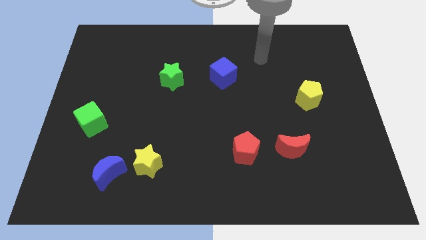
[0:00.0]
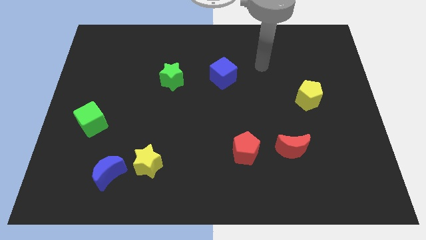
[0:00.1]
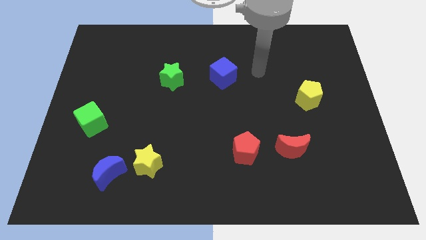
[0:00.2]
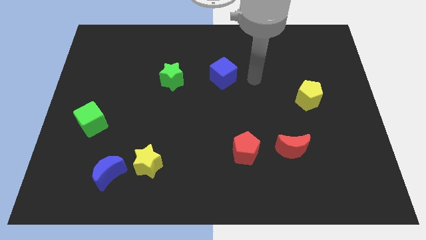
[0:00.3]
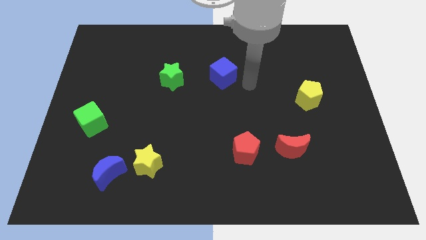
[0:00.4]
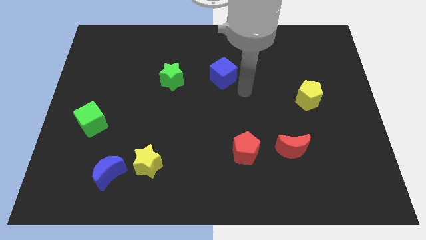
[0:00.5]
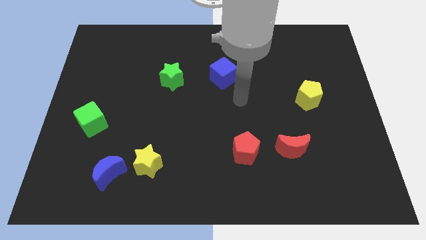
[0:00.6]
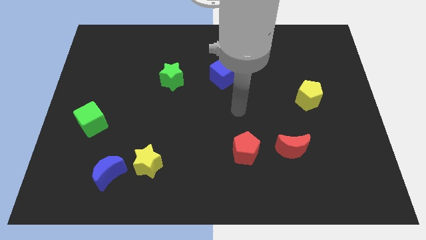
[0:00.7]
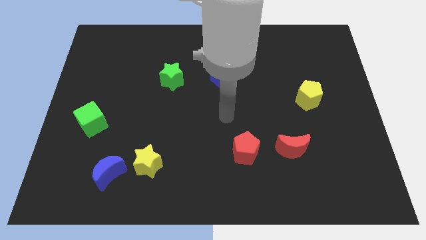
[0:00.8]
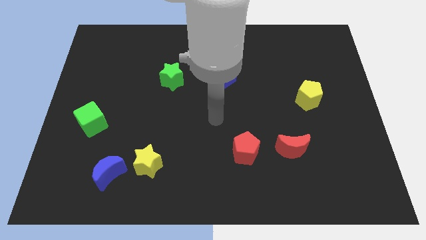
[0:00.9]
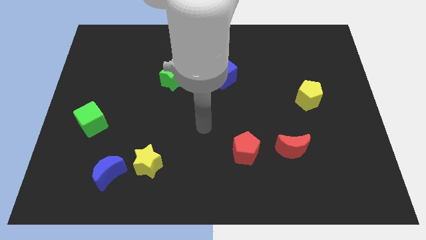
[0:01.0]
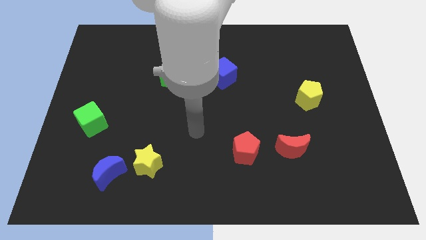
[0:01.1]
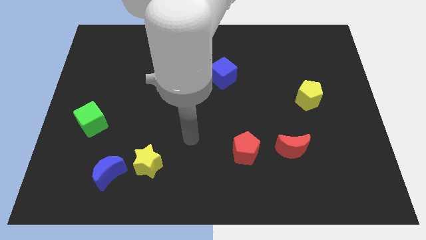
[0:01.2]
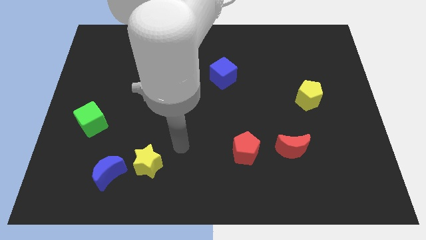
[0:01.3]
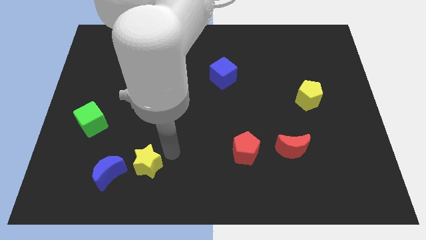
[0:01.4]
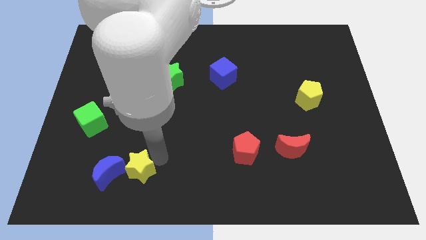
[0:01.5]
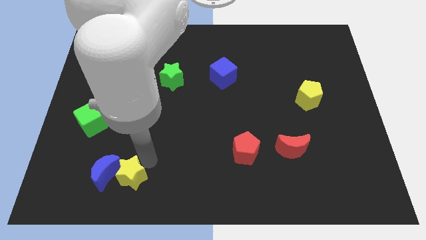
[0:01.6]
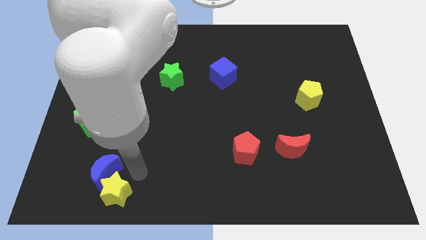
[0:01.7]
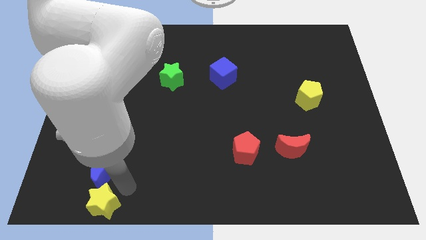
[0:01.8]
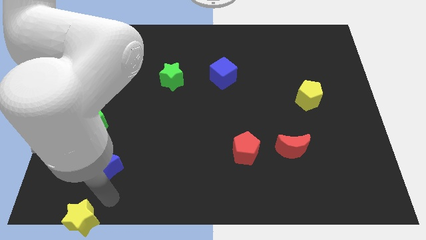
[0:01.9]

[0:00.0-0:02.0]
separate the blue moon from the yellow star

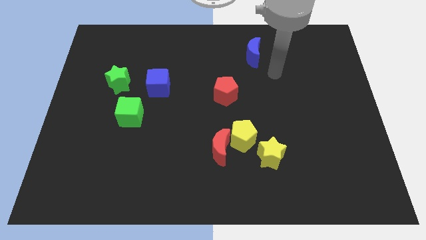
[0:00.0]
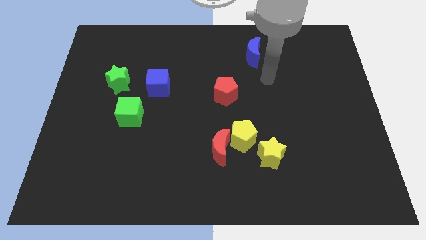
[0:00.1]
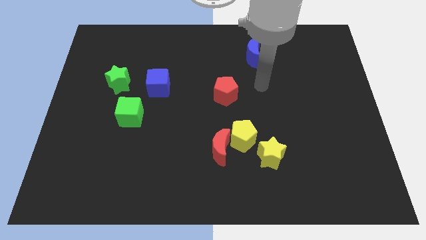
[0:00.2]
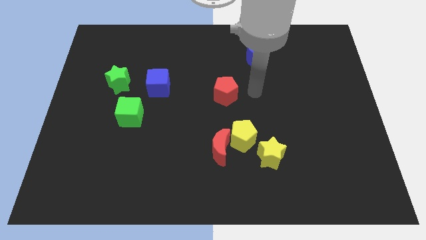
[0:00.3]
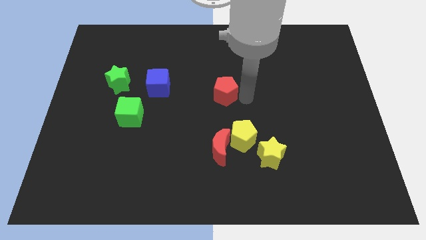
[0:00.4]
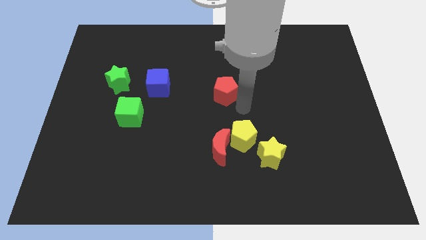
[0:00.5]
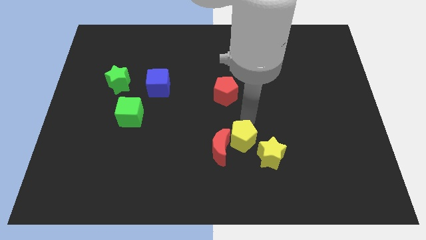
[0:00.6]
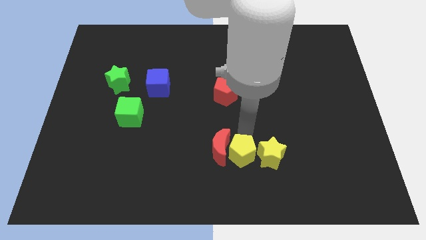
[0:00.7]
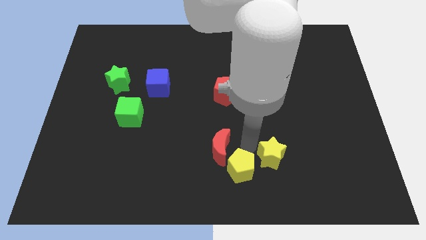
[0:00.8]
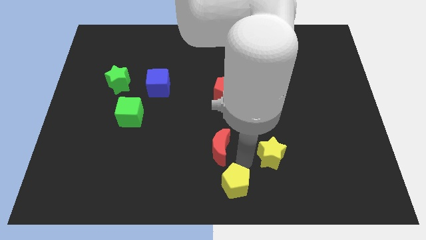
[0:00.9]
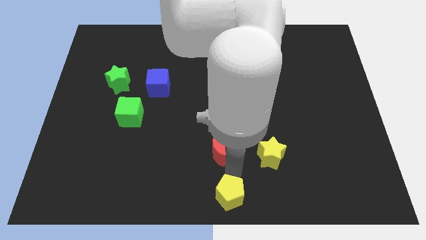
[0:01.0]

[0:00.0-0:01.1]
move the red moon away from the yellow pentagon

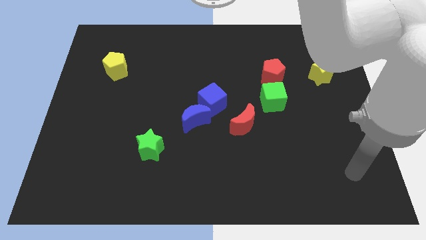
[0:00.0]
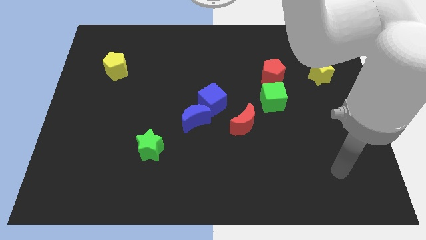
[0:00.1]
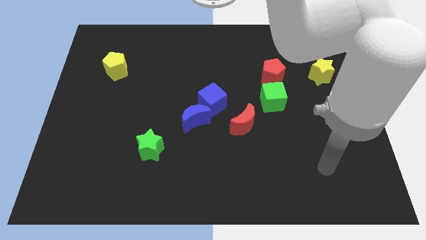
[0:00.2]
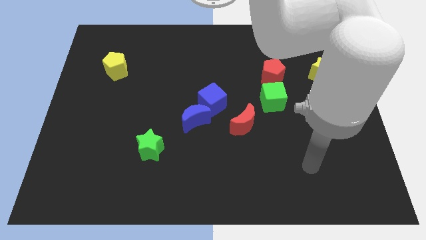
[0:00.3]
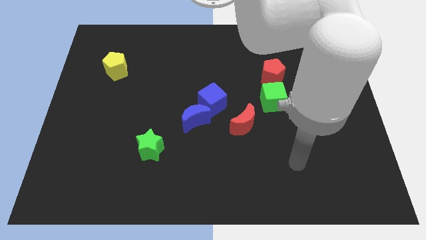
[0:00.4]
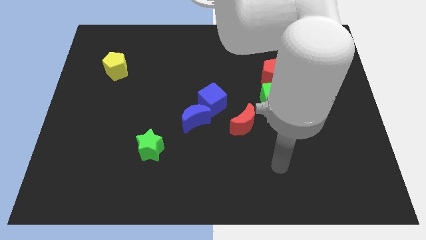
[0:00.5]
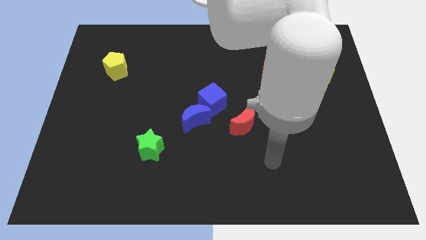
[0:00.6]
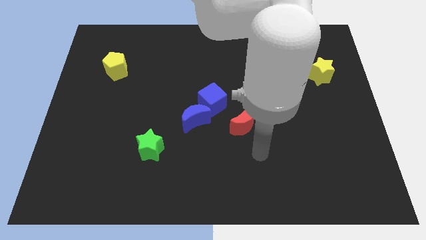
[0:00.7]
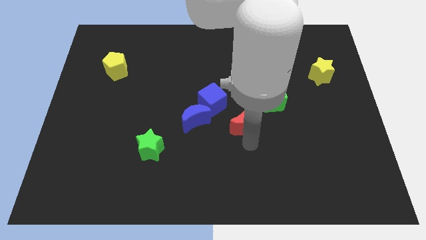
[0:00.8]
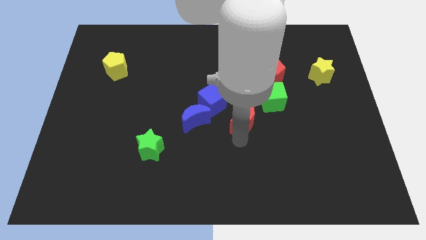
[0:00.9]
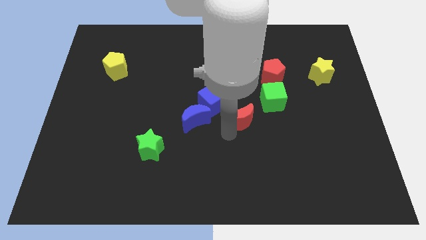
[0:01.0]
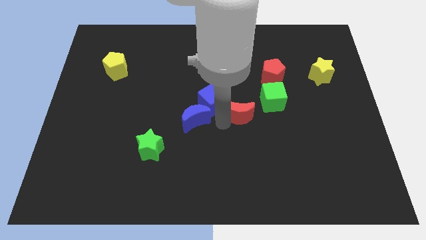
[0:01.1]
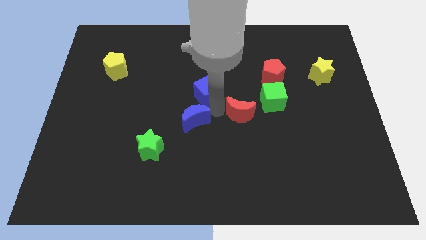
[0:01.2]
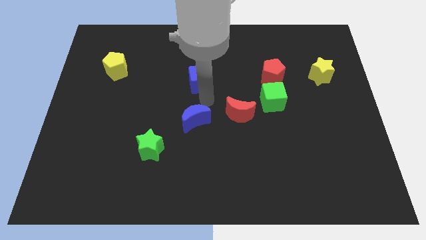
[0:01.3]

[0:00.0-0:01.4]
pull the blue moon apart from the blue cube

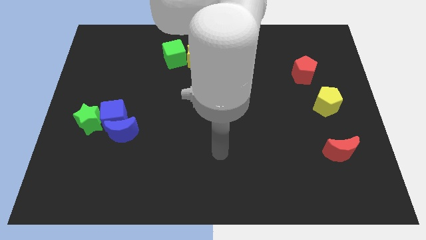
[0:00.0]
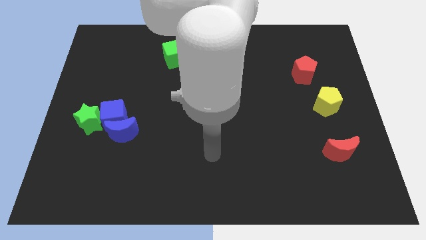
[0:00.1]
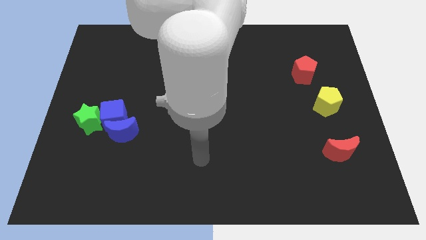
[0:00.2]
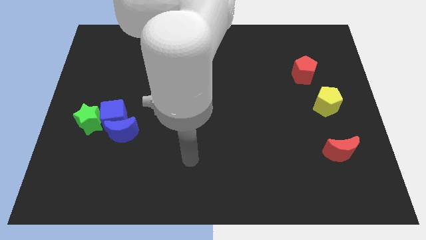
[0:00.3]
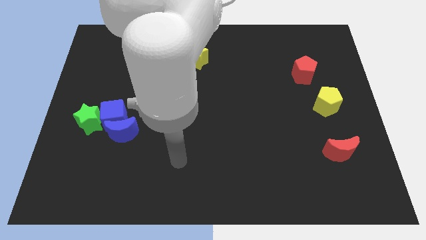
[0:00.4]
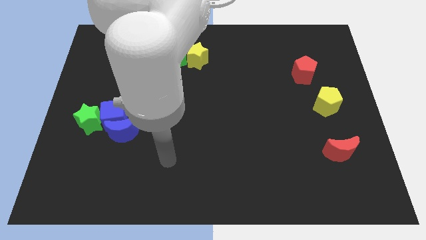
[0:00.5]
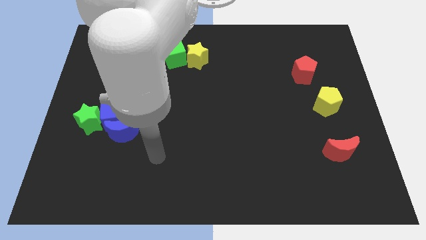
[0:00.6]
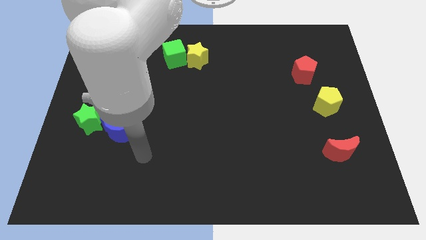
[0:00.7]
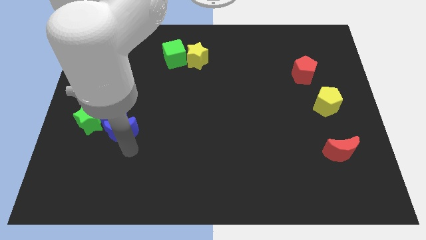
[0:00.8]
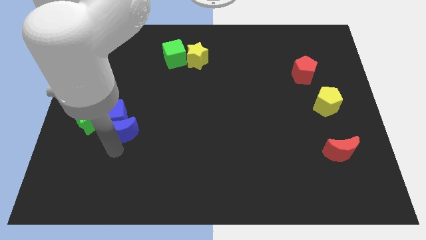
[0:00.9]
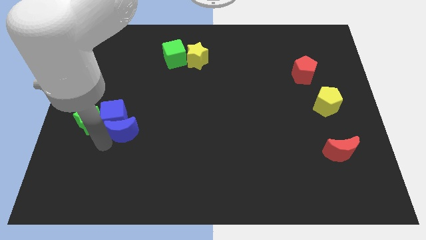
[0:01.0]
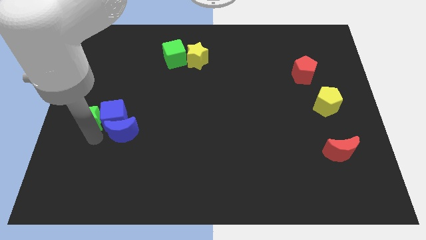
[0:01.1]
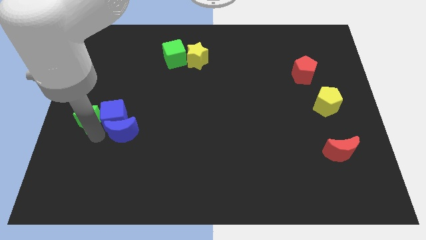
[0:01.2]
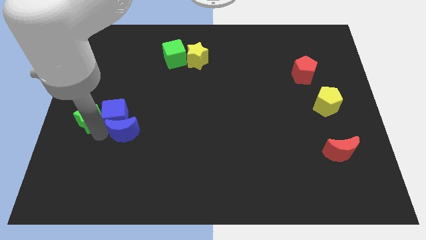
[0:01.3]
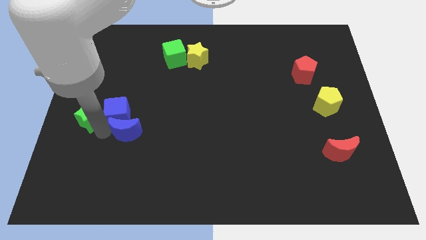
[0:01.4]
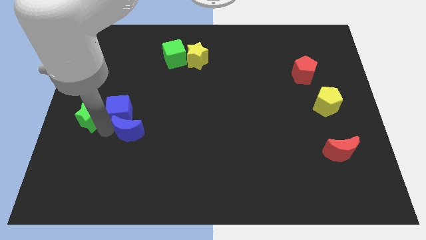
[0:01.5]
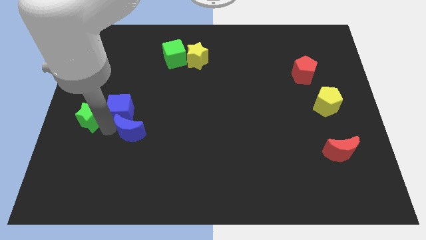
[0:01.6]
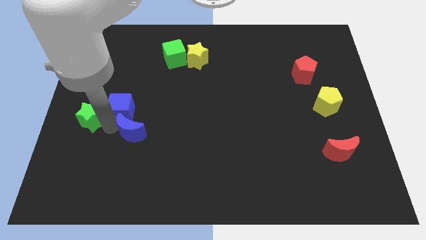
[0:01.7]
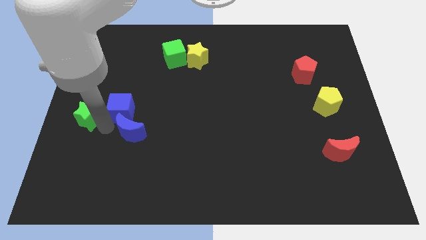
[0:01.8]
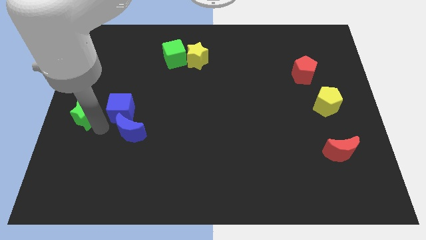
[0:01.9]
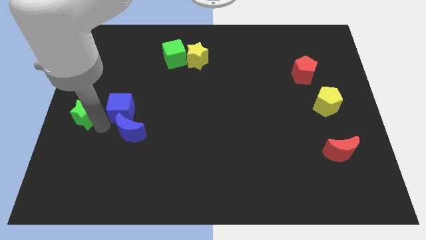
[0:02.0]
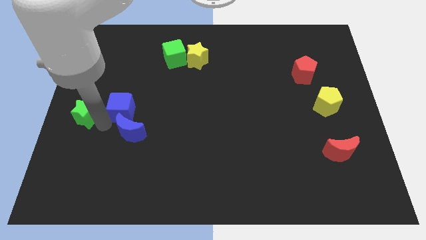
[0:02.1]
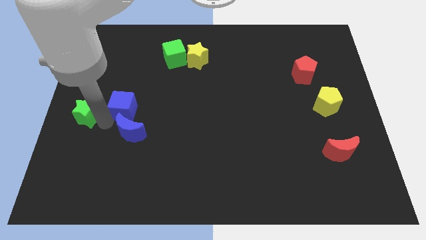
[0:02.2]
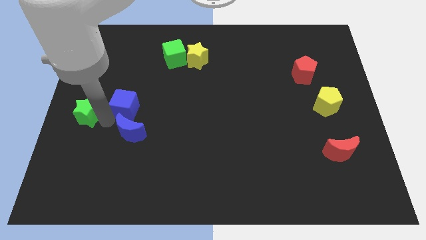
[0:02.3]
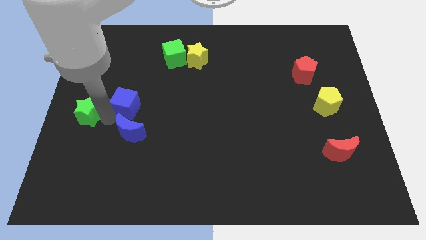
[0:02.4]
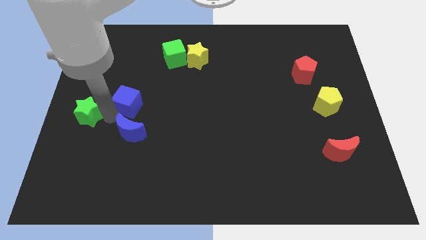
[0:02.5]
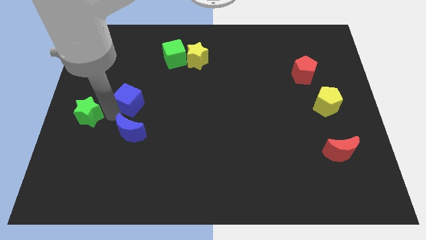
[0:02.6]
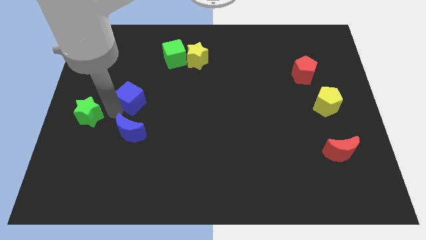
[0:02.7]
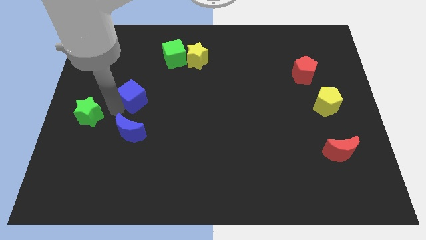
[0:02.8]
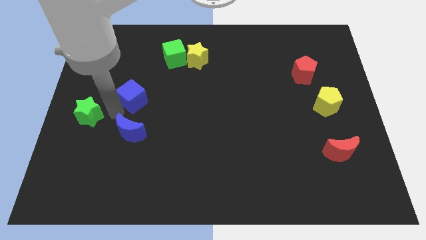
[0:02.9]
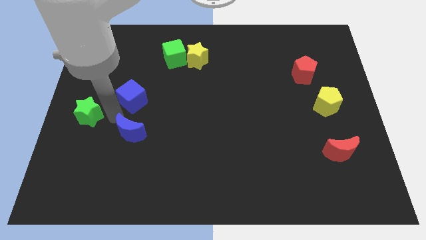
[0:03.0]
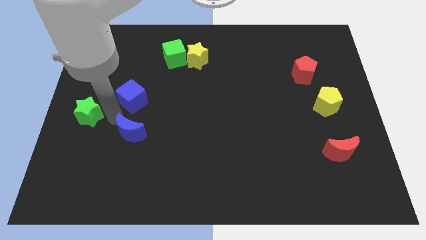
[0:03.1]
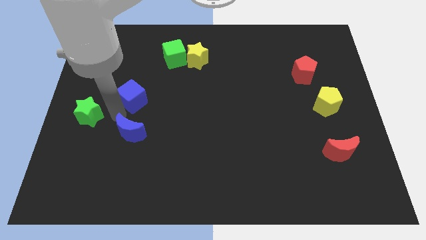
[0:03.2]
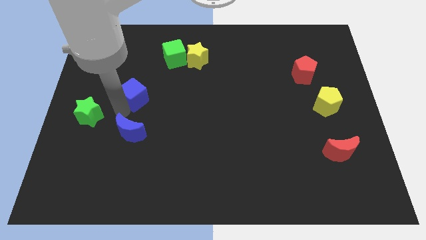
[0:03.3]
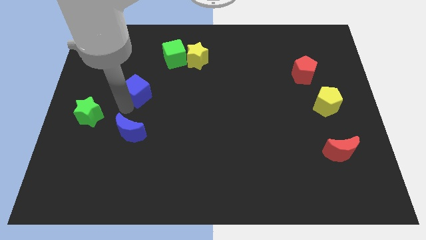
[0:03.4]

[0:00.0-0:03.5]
separate the blue cube from the blue moon and green star

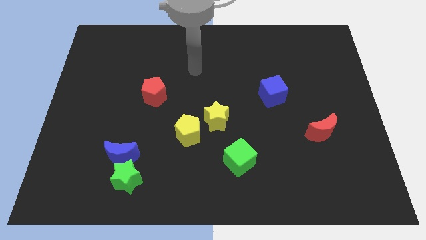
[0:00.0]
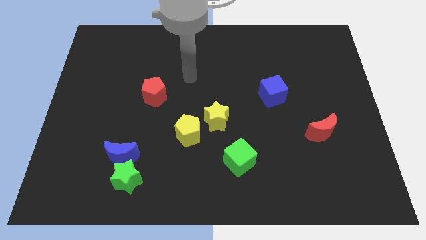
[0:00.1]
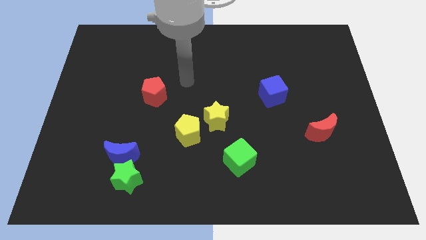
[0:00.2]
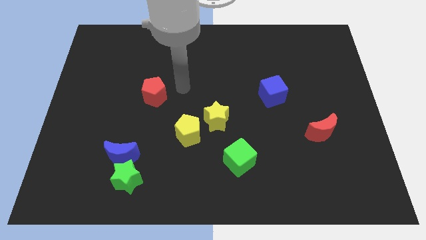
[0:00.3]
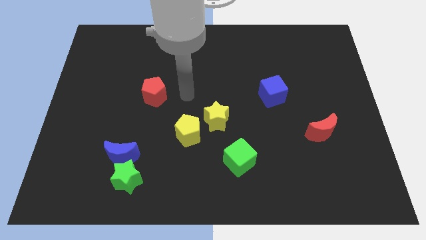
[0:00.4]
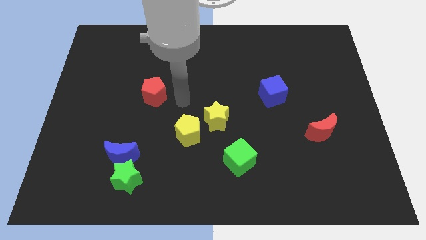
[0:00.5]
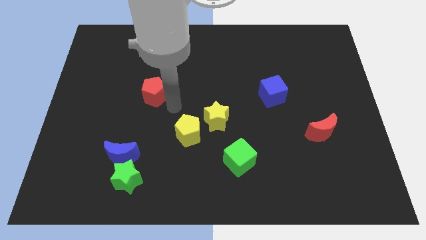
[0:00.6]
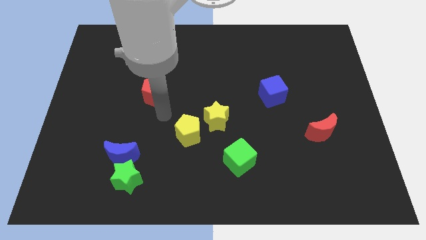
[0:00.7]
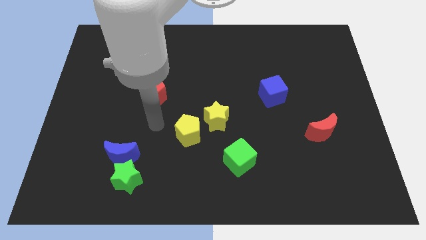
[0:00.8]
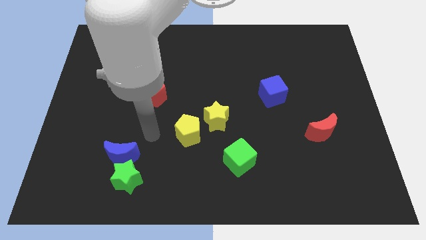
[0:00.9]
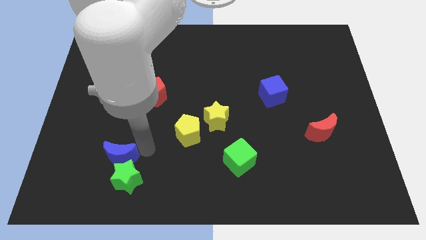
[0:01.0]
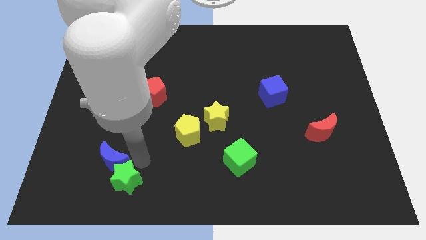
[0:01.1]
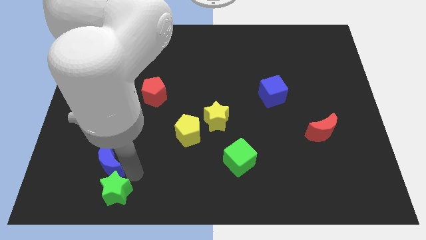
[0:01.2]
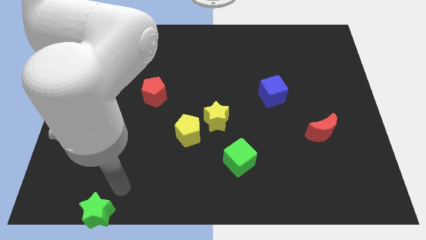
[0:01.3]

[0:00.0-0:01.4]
move the blue moon away from the green star
